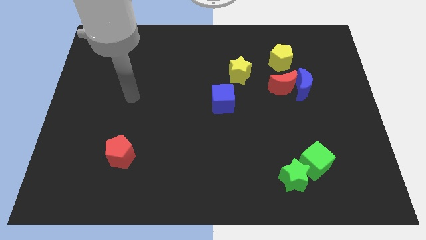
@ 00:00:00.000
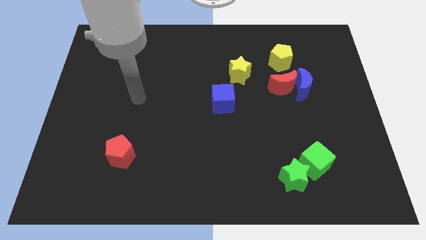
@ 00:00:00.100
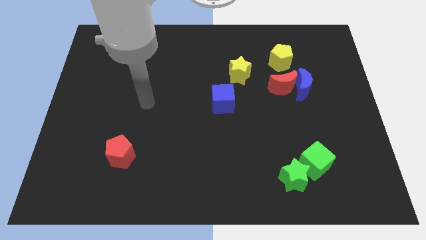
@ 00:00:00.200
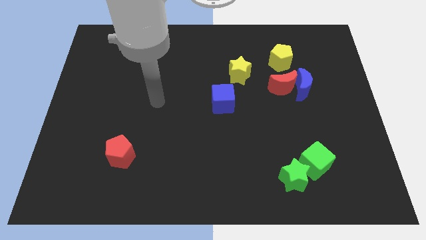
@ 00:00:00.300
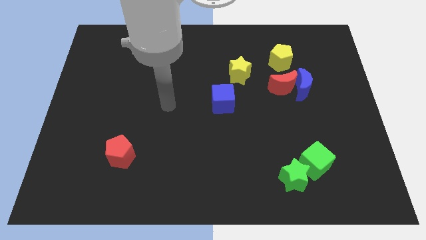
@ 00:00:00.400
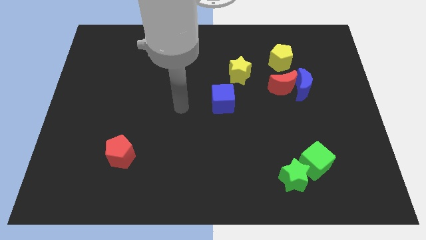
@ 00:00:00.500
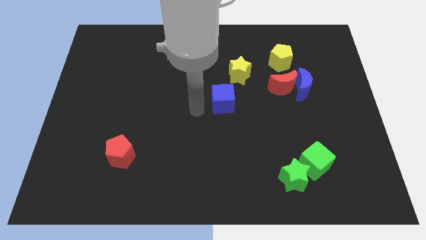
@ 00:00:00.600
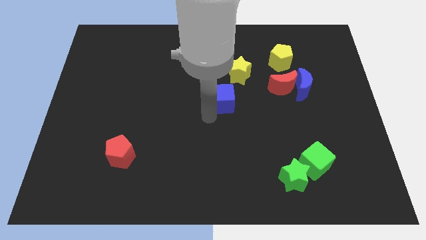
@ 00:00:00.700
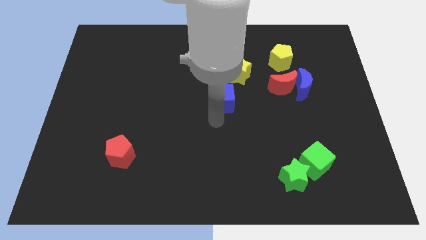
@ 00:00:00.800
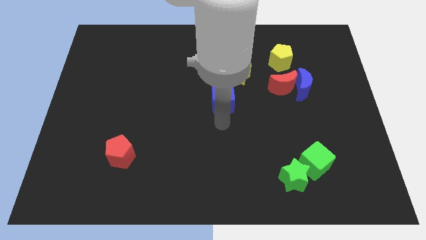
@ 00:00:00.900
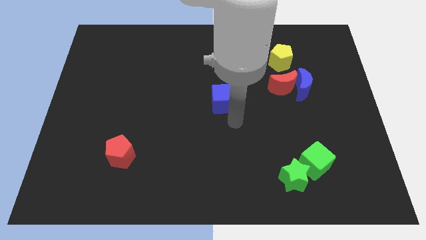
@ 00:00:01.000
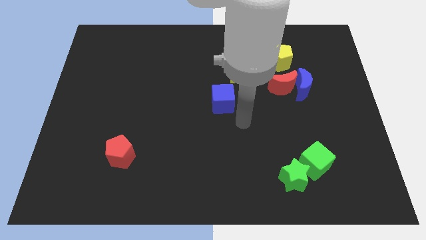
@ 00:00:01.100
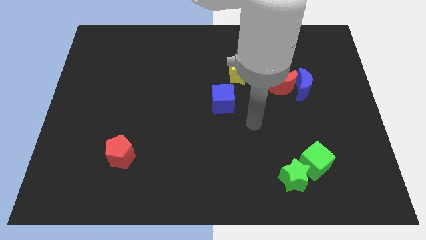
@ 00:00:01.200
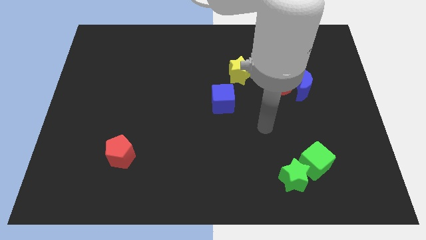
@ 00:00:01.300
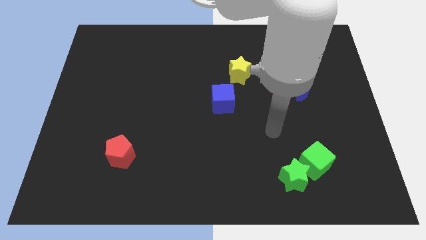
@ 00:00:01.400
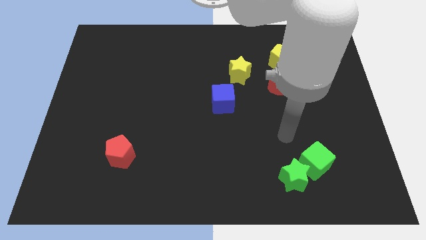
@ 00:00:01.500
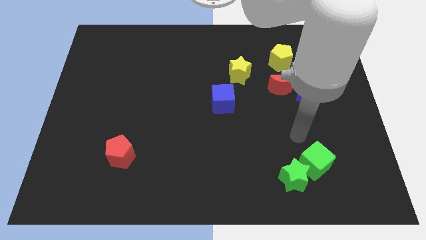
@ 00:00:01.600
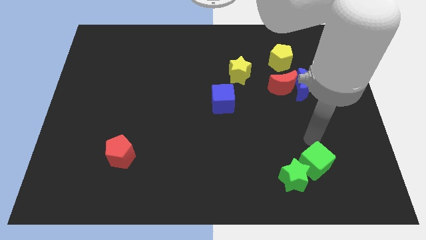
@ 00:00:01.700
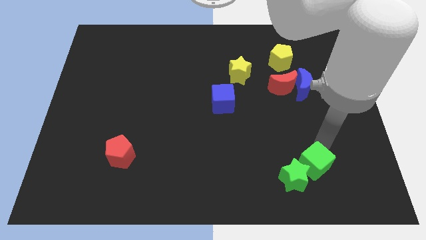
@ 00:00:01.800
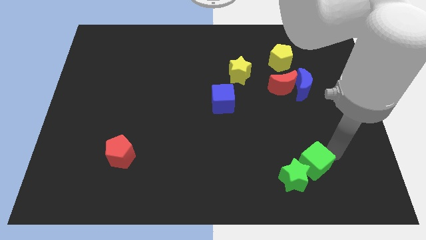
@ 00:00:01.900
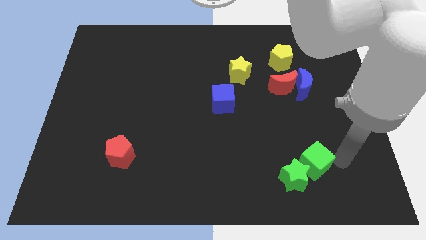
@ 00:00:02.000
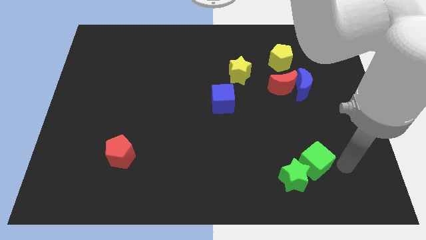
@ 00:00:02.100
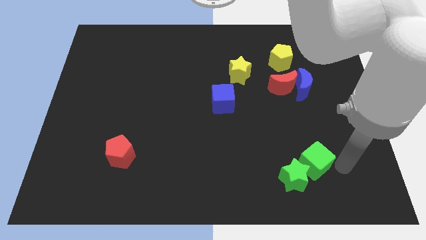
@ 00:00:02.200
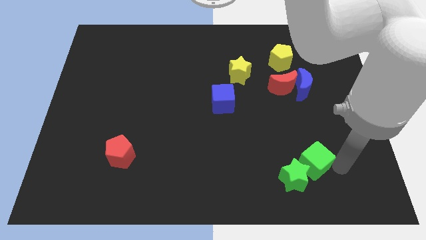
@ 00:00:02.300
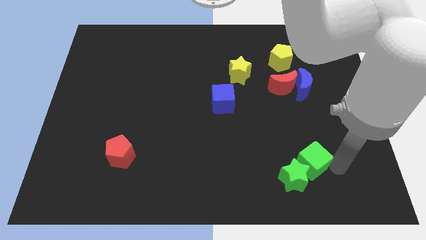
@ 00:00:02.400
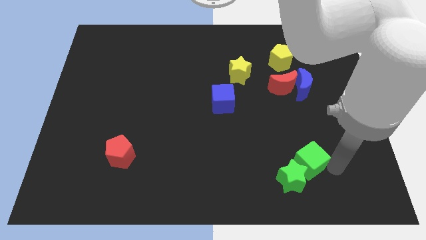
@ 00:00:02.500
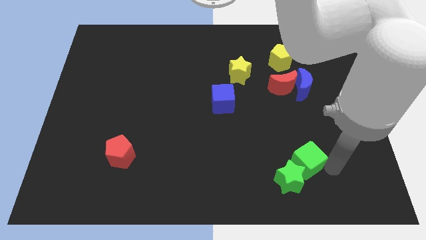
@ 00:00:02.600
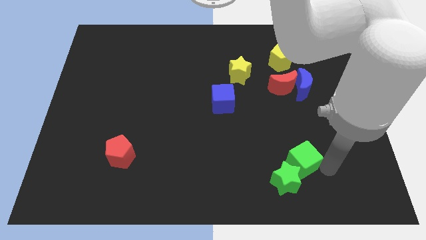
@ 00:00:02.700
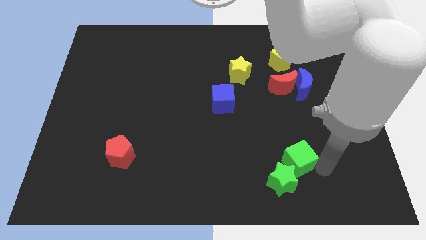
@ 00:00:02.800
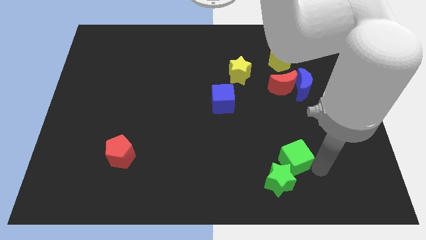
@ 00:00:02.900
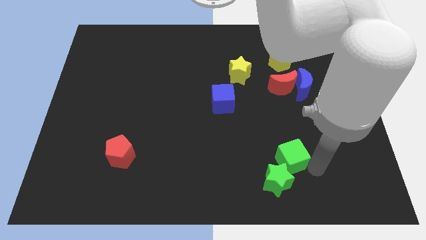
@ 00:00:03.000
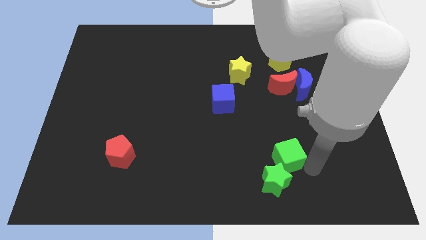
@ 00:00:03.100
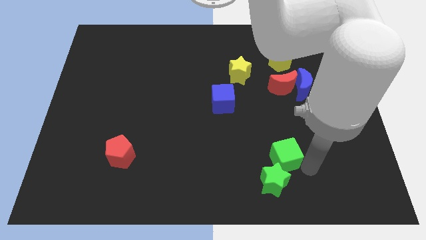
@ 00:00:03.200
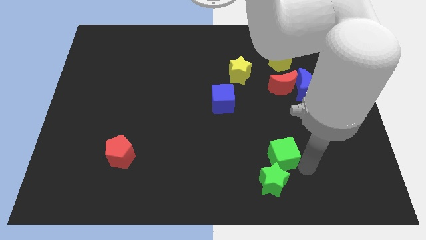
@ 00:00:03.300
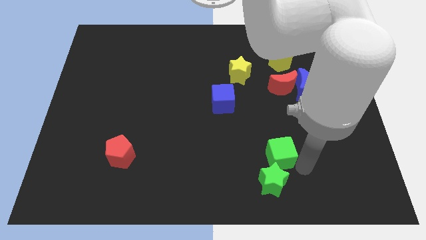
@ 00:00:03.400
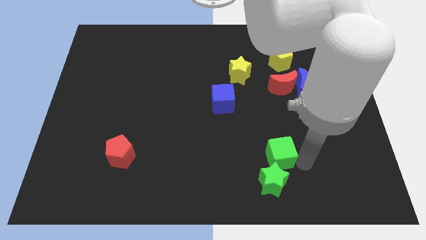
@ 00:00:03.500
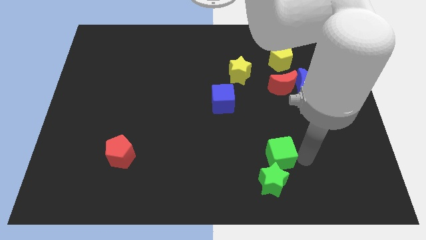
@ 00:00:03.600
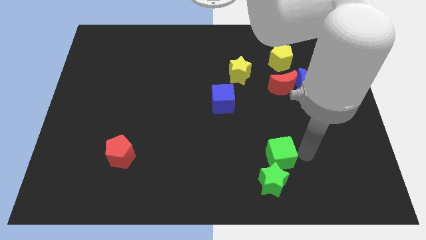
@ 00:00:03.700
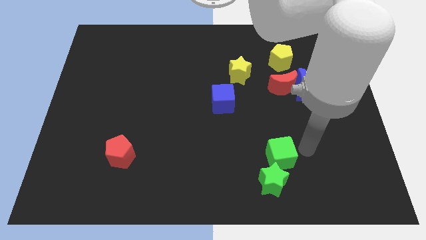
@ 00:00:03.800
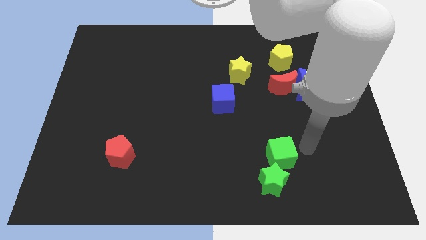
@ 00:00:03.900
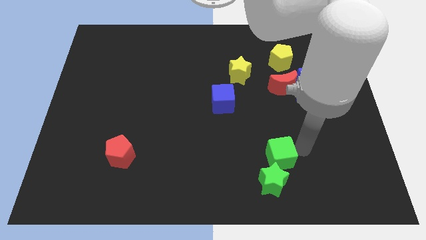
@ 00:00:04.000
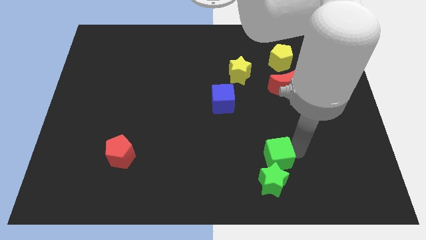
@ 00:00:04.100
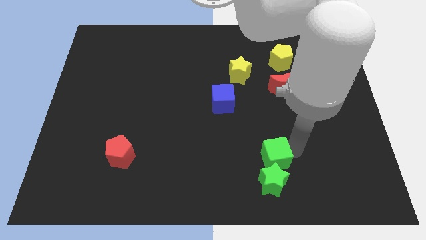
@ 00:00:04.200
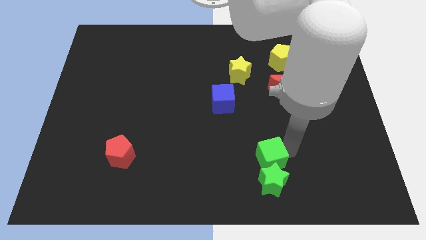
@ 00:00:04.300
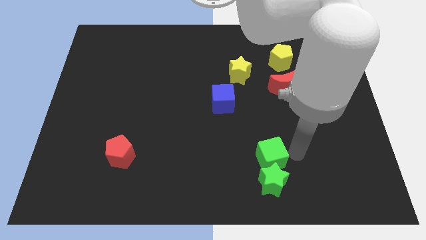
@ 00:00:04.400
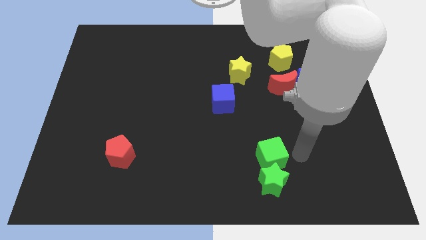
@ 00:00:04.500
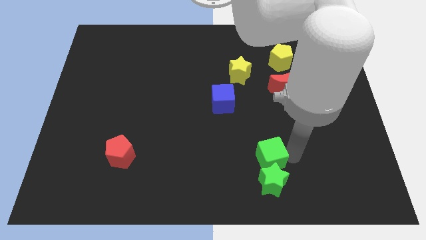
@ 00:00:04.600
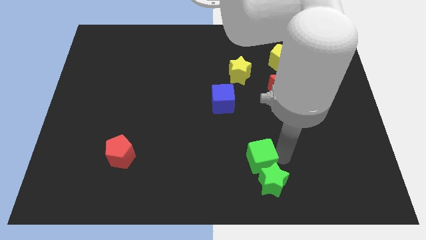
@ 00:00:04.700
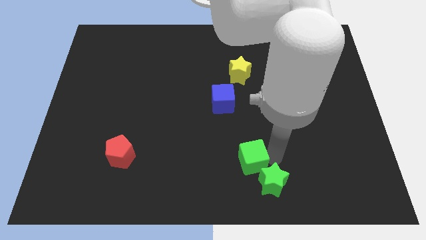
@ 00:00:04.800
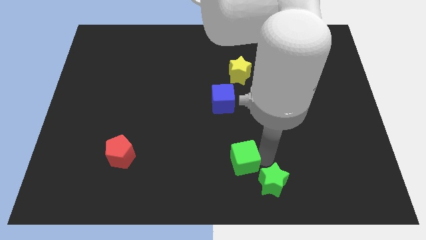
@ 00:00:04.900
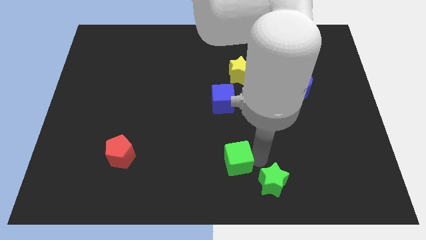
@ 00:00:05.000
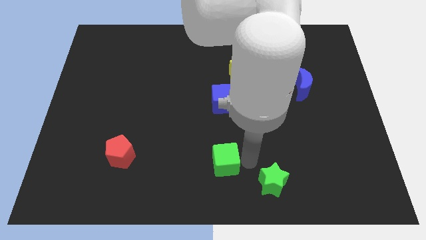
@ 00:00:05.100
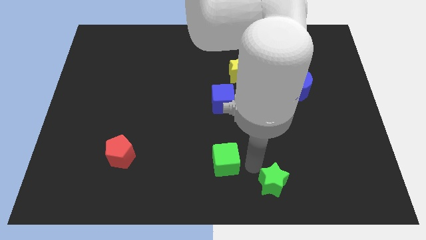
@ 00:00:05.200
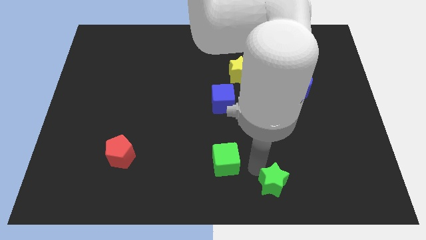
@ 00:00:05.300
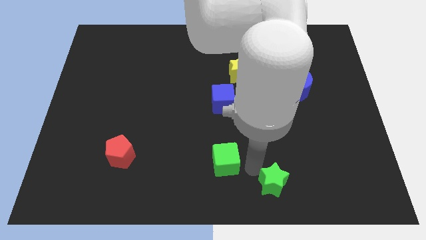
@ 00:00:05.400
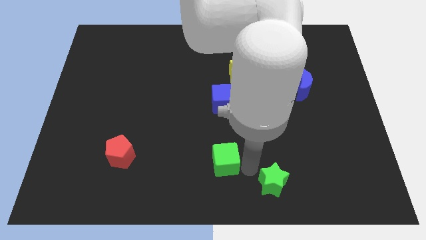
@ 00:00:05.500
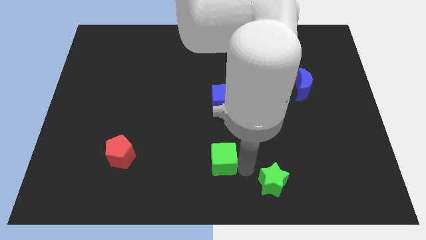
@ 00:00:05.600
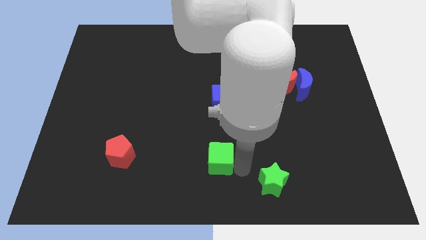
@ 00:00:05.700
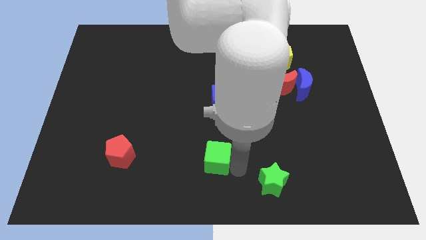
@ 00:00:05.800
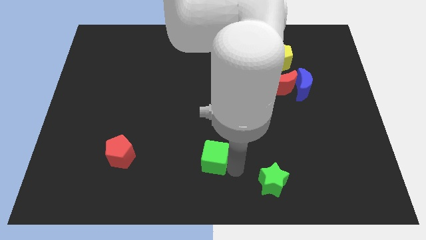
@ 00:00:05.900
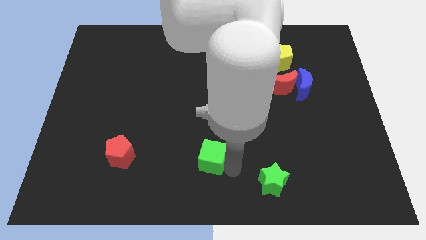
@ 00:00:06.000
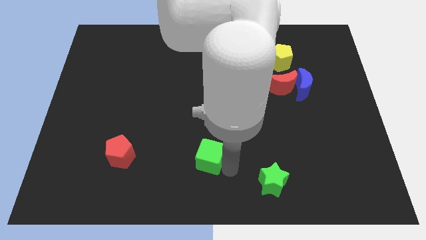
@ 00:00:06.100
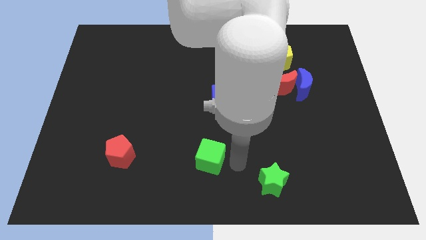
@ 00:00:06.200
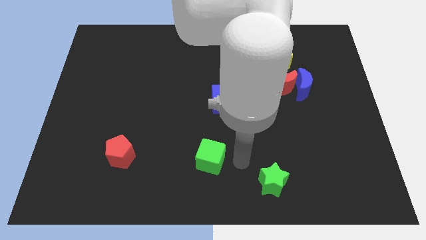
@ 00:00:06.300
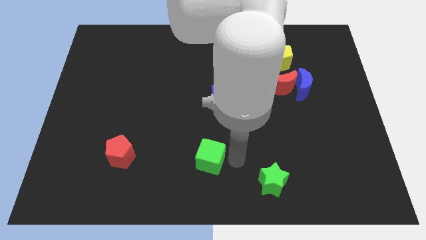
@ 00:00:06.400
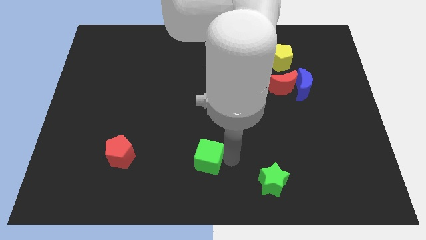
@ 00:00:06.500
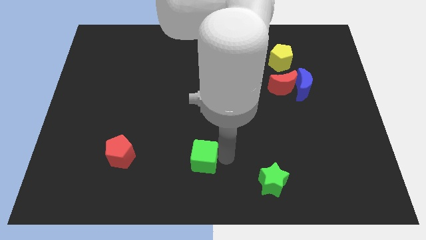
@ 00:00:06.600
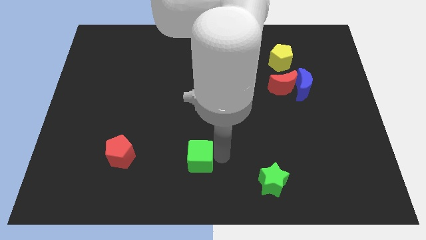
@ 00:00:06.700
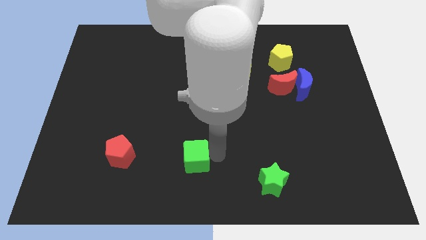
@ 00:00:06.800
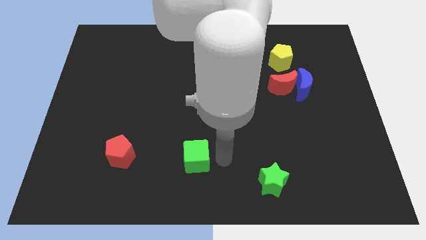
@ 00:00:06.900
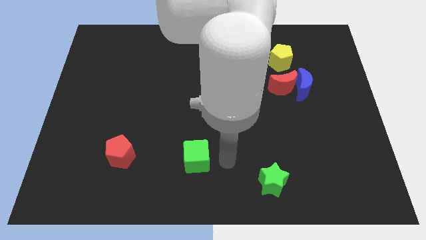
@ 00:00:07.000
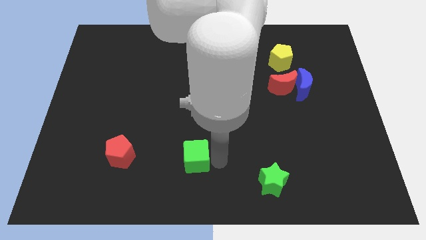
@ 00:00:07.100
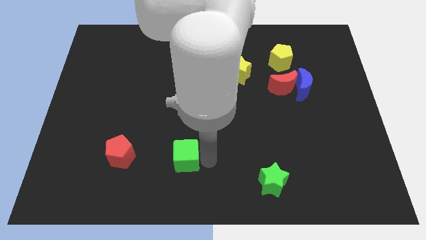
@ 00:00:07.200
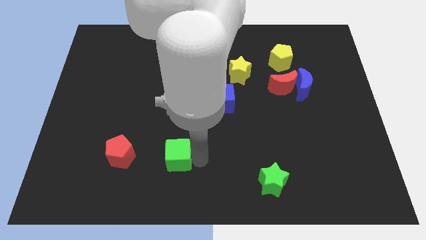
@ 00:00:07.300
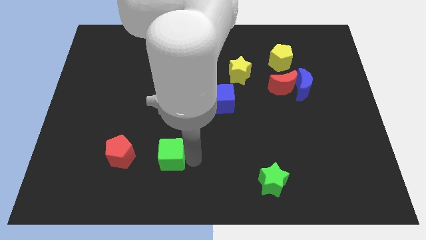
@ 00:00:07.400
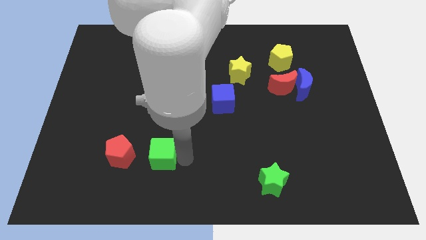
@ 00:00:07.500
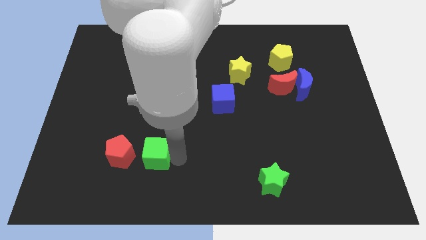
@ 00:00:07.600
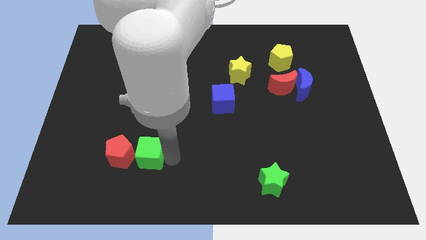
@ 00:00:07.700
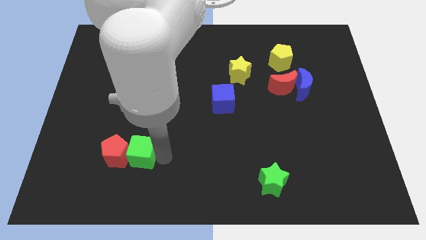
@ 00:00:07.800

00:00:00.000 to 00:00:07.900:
move the green cube close to the red pentagon
